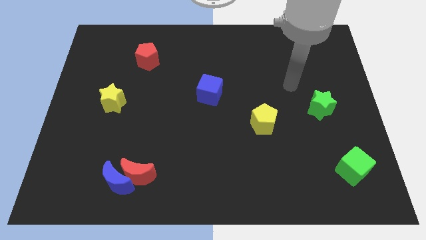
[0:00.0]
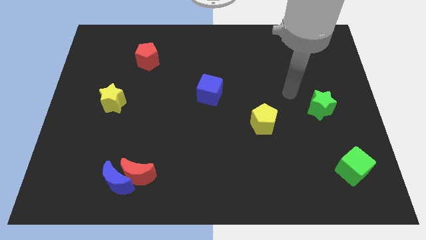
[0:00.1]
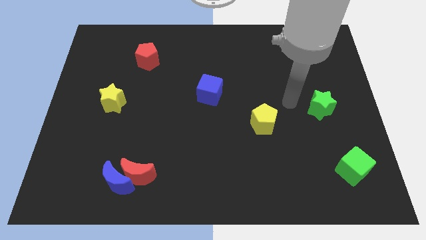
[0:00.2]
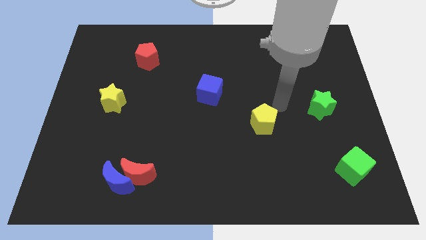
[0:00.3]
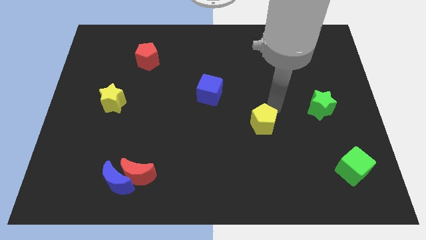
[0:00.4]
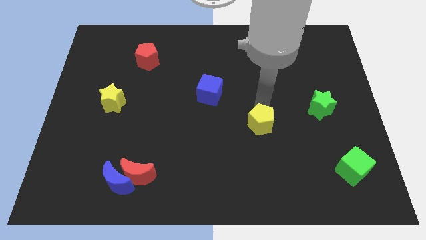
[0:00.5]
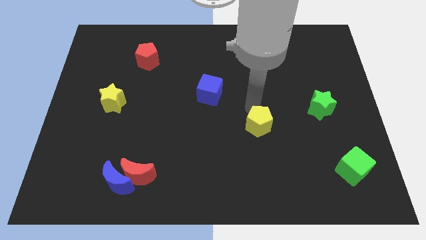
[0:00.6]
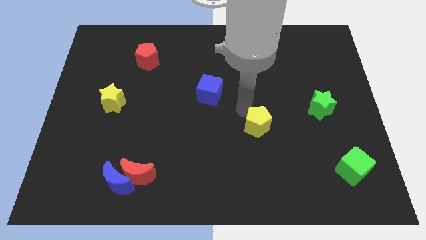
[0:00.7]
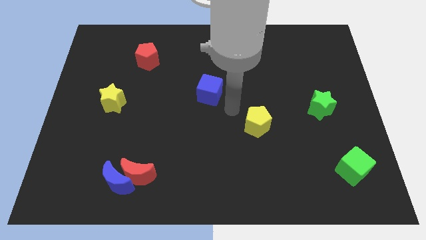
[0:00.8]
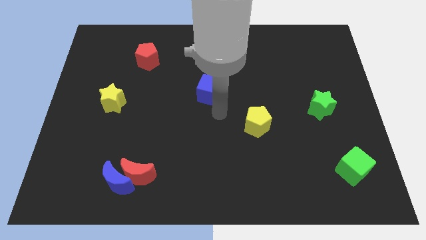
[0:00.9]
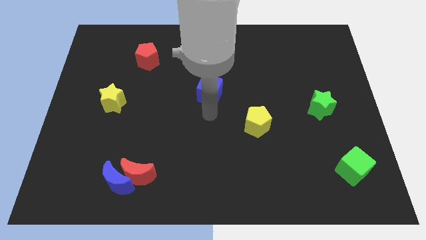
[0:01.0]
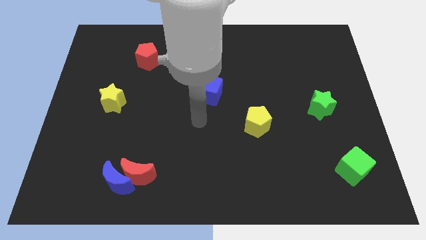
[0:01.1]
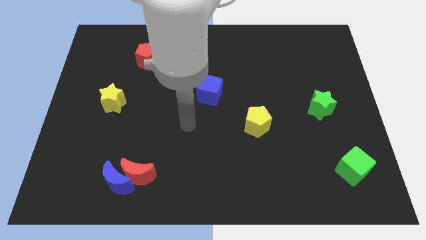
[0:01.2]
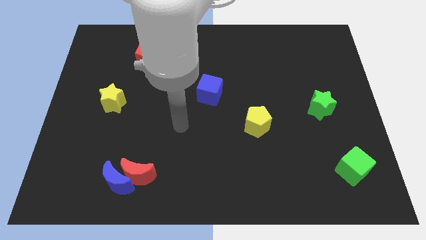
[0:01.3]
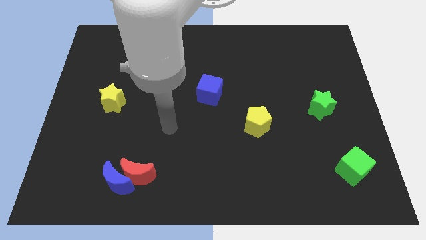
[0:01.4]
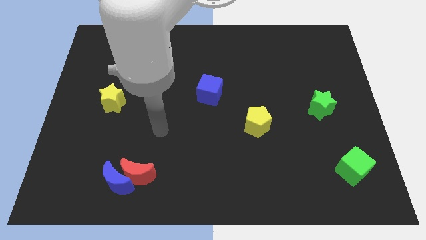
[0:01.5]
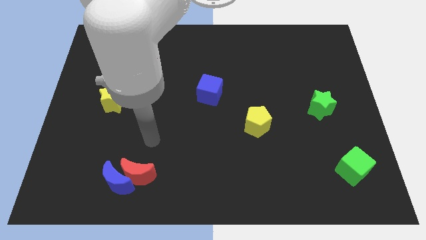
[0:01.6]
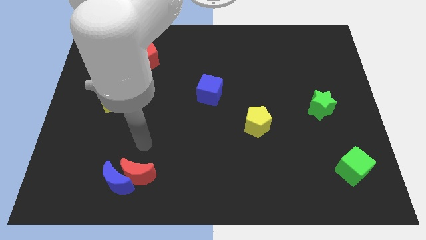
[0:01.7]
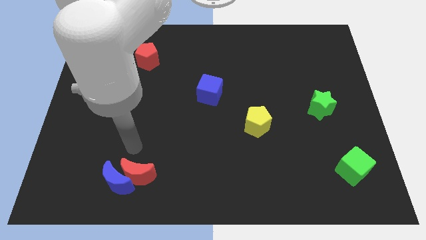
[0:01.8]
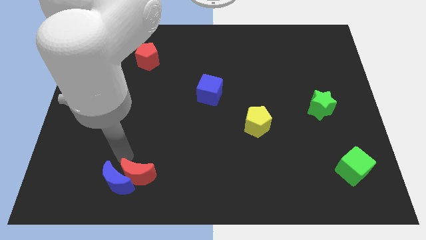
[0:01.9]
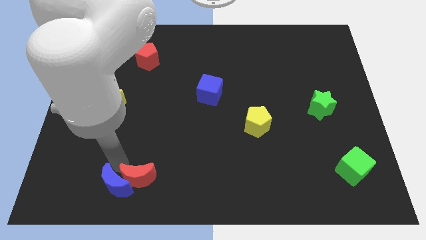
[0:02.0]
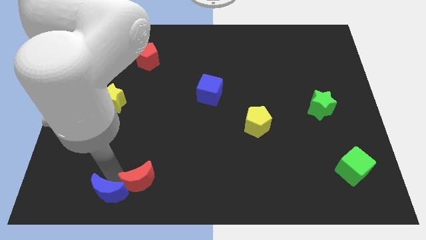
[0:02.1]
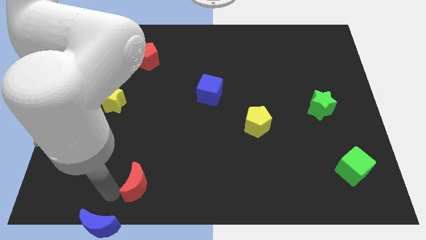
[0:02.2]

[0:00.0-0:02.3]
pull the red moon apart from the blue moon

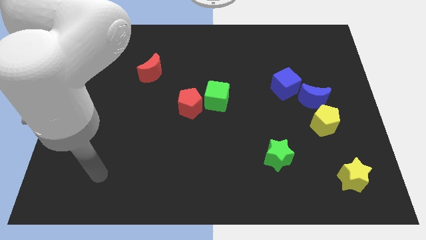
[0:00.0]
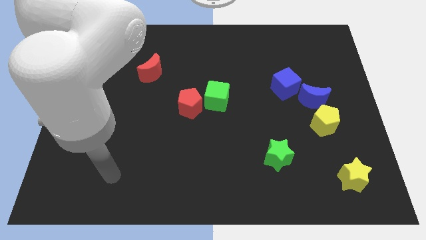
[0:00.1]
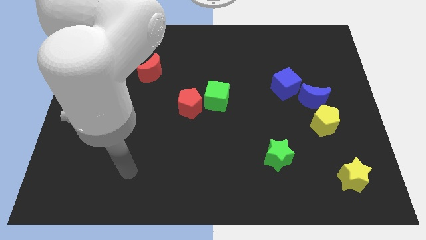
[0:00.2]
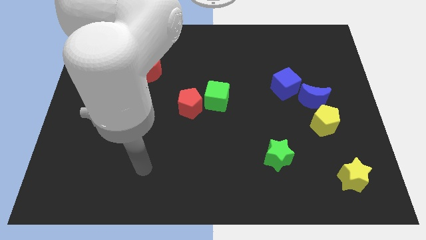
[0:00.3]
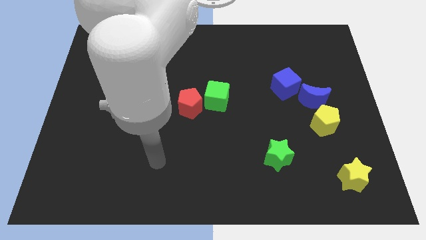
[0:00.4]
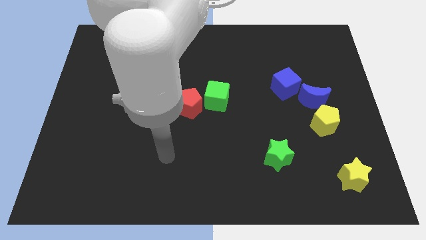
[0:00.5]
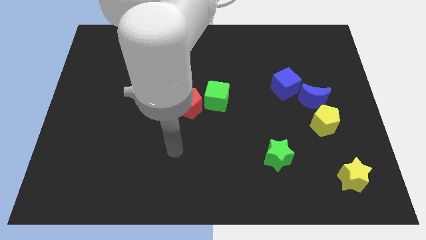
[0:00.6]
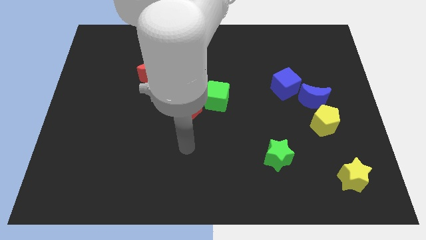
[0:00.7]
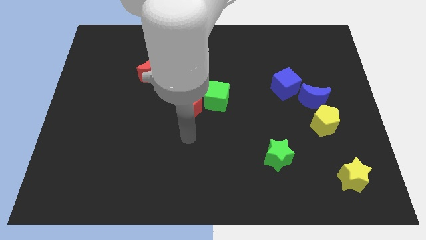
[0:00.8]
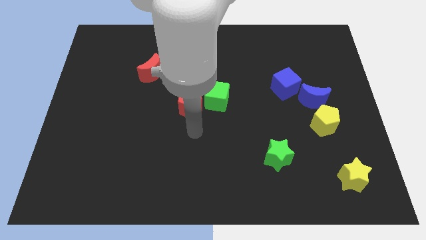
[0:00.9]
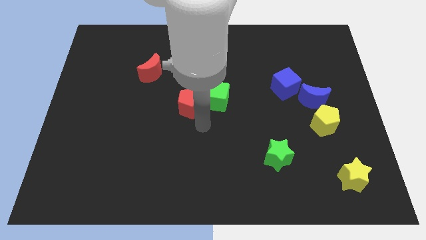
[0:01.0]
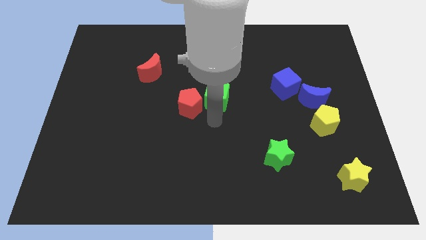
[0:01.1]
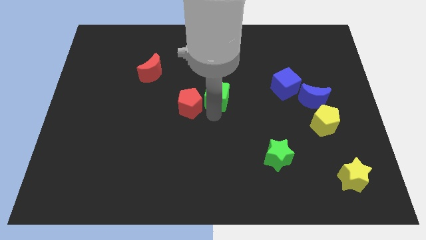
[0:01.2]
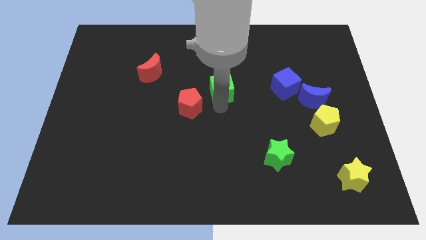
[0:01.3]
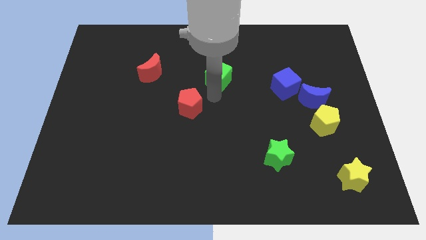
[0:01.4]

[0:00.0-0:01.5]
move the red pentagon away from the green cube

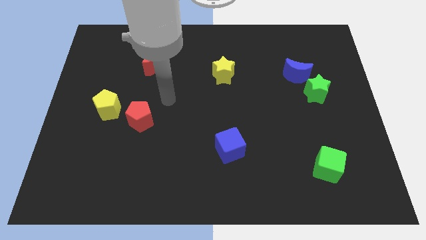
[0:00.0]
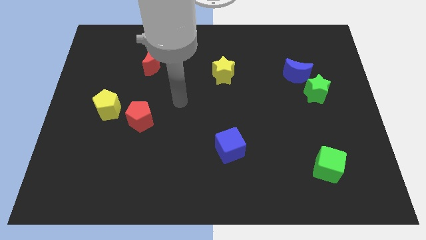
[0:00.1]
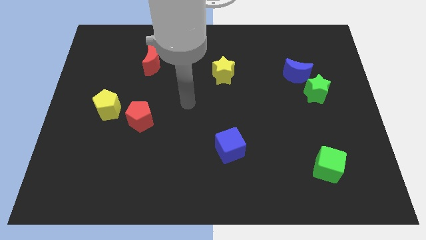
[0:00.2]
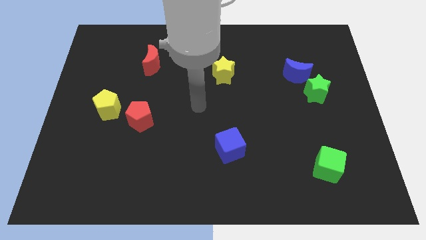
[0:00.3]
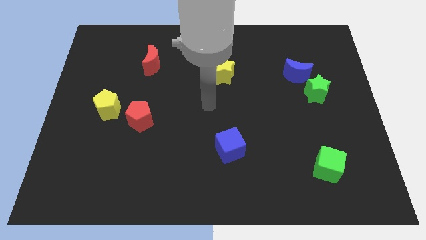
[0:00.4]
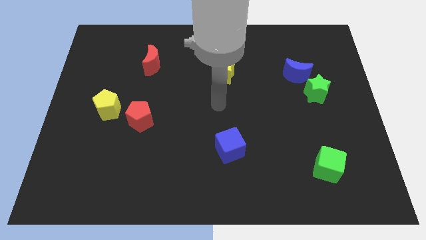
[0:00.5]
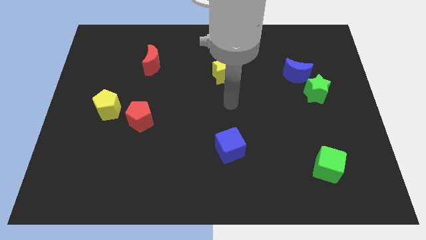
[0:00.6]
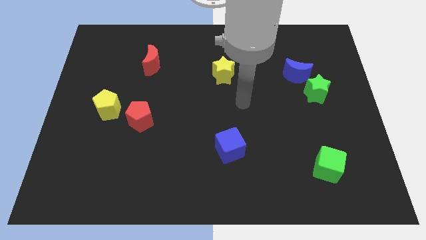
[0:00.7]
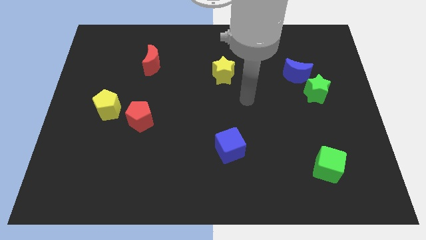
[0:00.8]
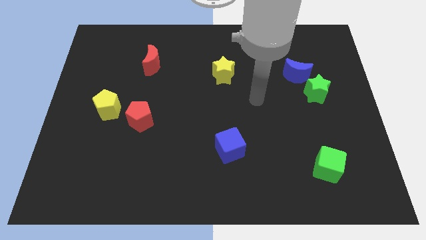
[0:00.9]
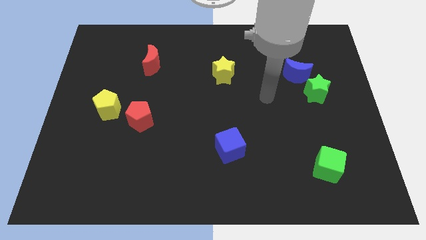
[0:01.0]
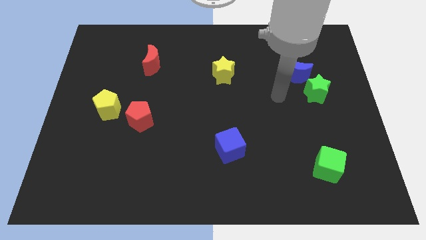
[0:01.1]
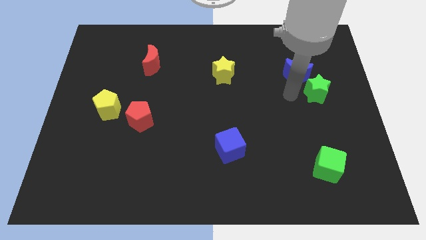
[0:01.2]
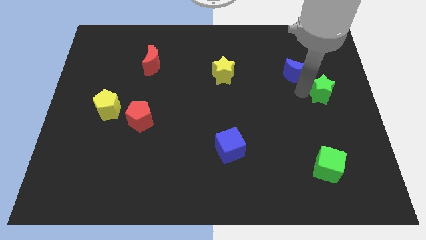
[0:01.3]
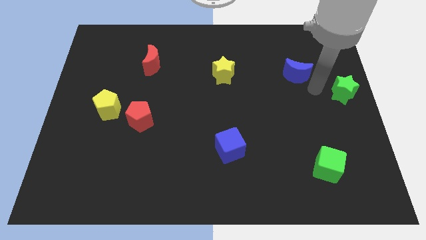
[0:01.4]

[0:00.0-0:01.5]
pull the blue moon apart from the green star

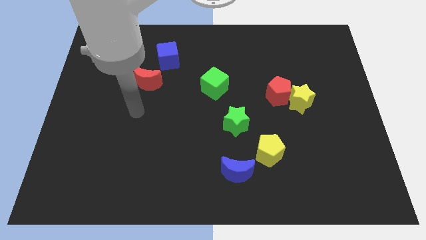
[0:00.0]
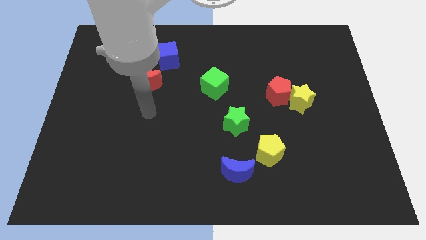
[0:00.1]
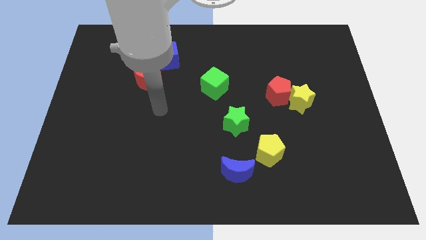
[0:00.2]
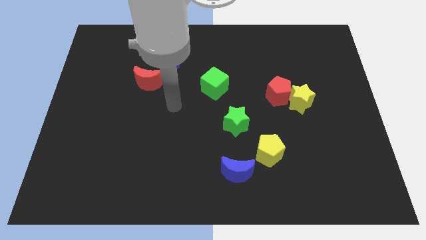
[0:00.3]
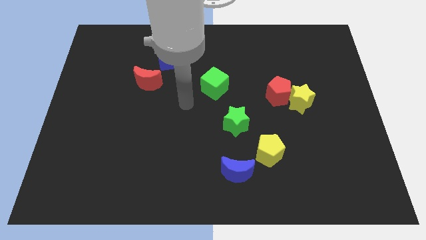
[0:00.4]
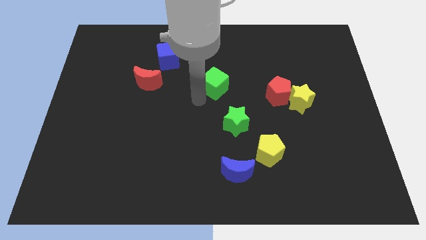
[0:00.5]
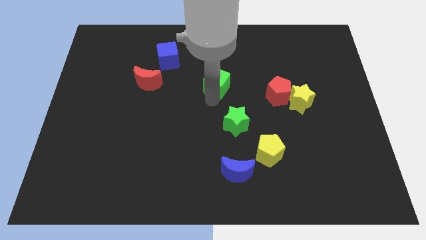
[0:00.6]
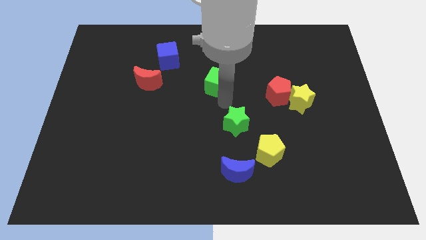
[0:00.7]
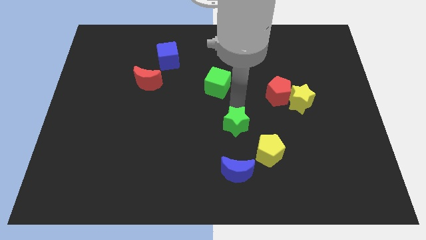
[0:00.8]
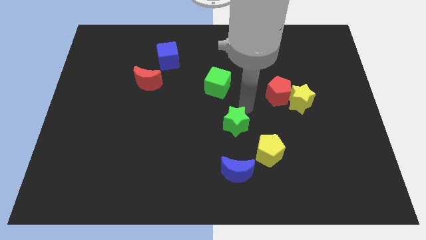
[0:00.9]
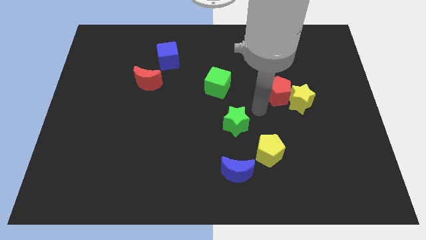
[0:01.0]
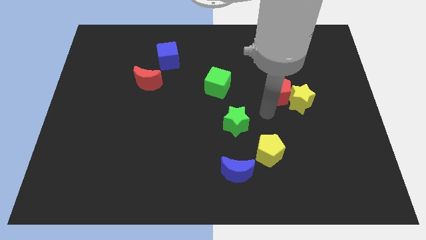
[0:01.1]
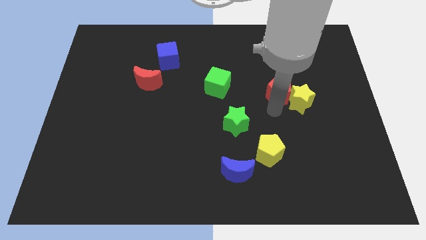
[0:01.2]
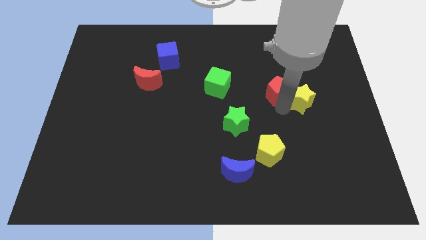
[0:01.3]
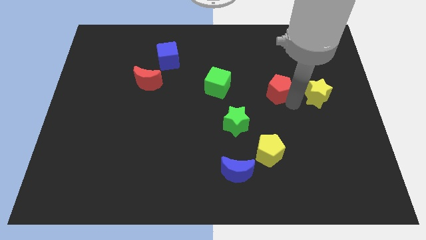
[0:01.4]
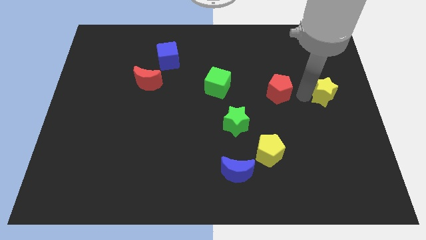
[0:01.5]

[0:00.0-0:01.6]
move the red pentagon away from the yellow star

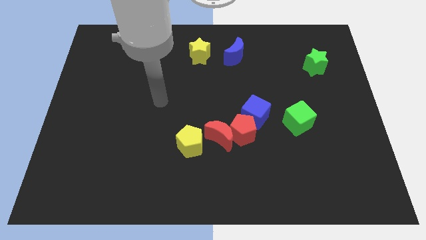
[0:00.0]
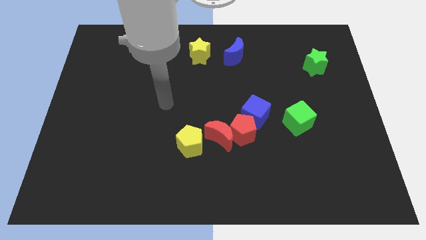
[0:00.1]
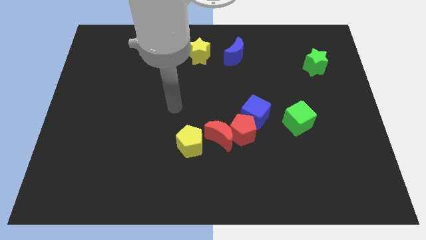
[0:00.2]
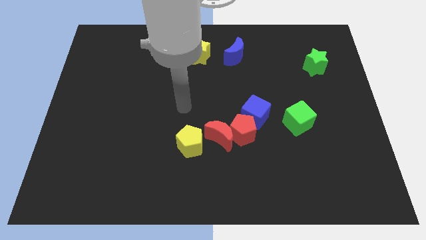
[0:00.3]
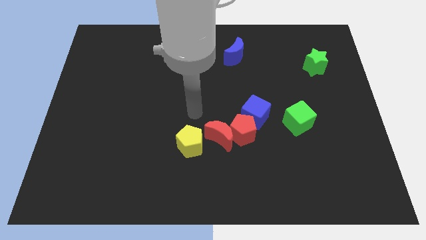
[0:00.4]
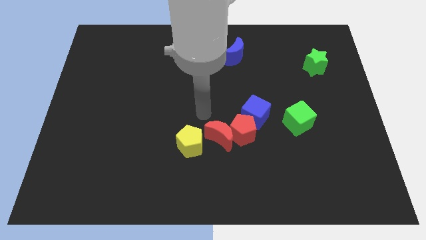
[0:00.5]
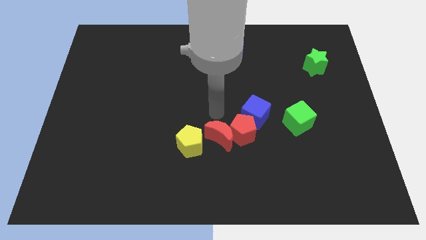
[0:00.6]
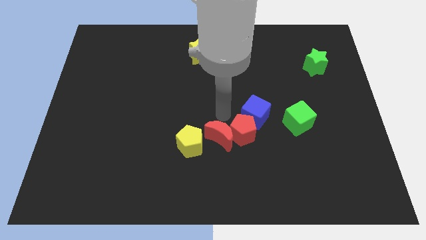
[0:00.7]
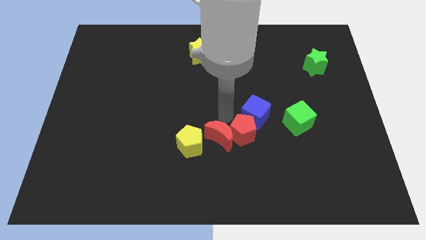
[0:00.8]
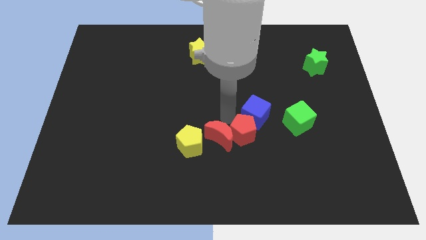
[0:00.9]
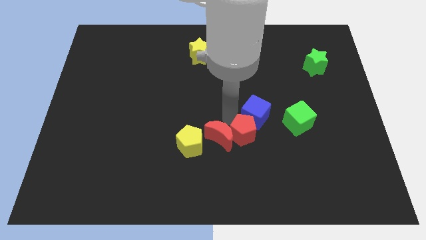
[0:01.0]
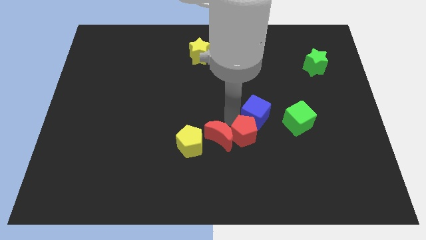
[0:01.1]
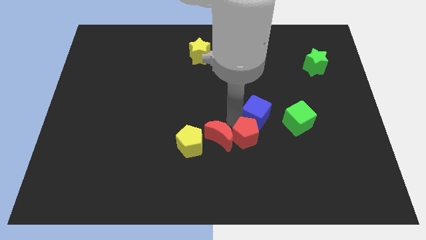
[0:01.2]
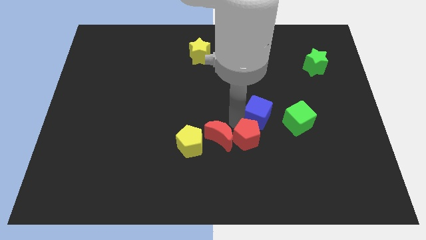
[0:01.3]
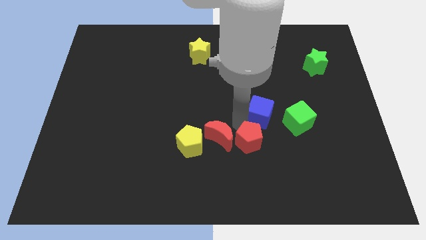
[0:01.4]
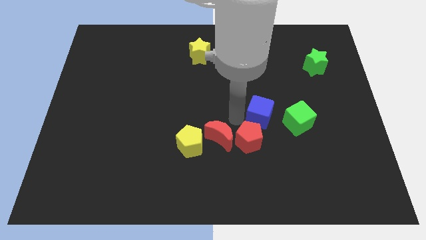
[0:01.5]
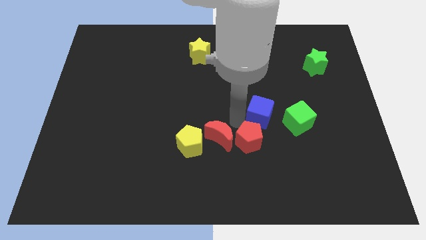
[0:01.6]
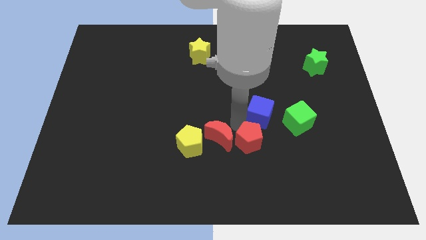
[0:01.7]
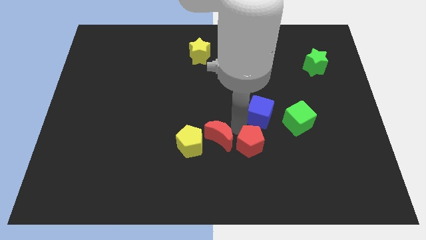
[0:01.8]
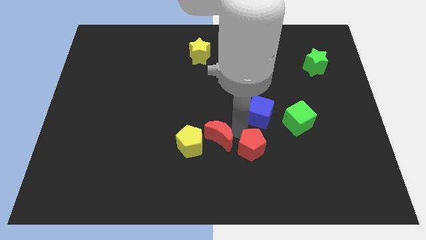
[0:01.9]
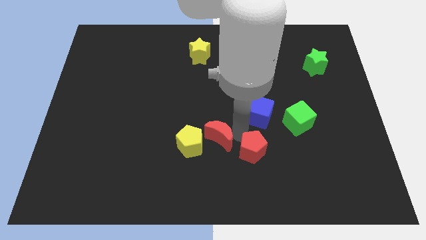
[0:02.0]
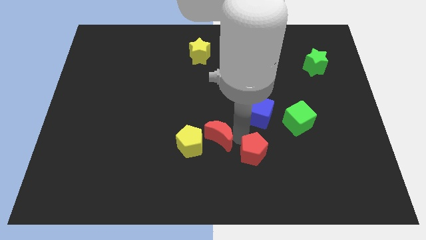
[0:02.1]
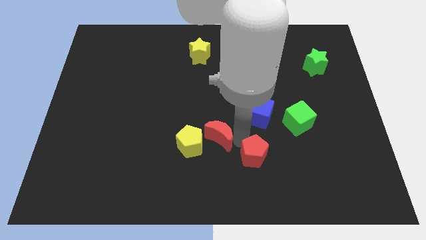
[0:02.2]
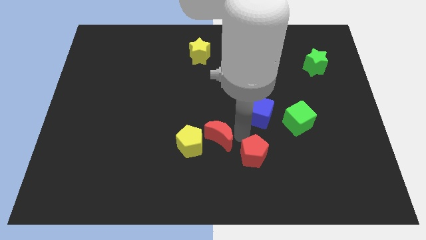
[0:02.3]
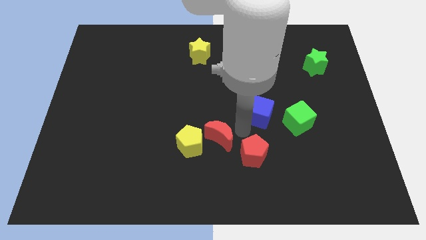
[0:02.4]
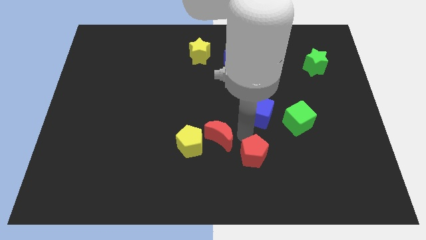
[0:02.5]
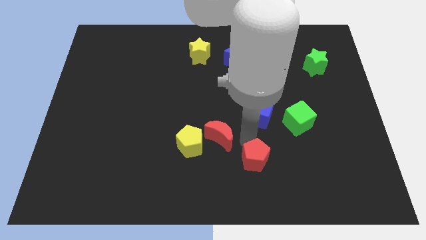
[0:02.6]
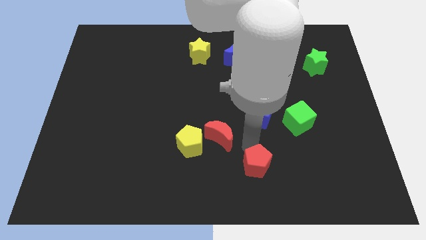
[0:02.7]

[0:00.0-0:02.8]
pull the red pentagon apart from the red moon and blue cube
